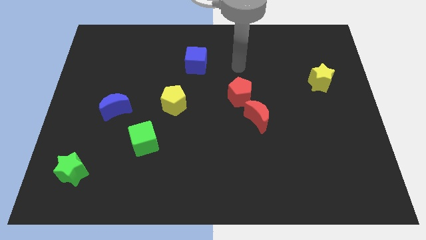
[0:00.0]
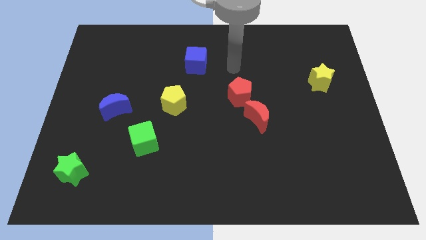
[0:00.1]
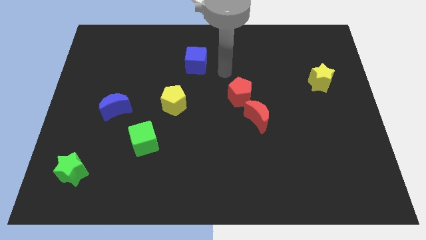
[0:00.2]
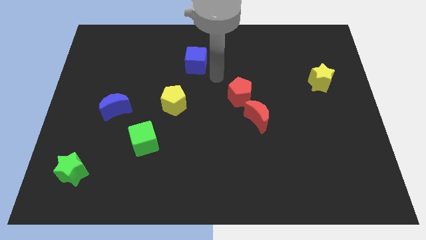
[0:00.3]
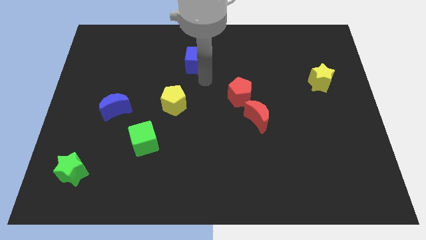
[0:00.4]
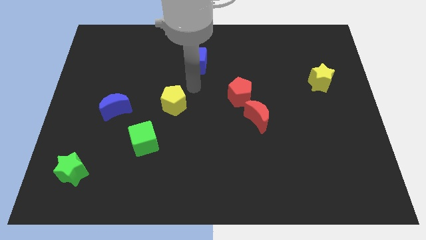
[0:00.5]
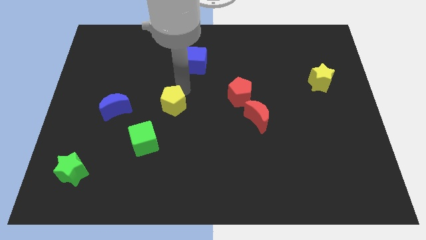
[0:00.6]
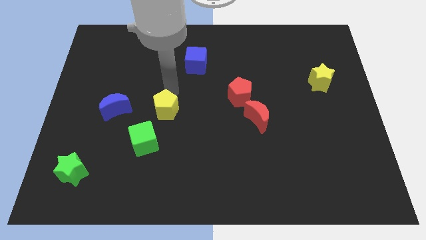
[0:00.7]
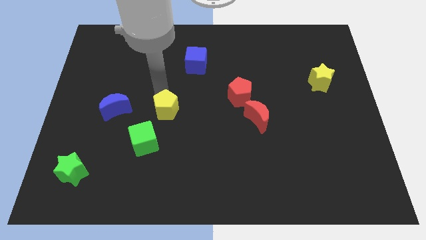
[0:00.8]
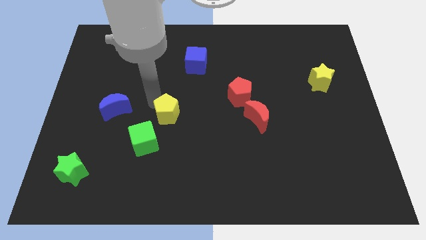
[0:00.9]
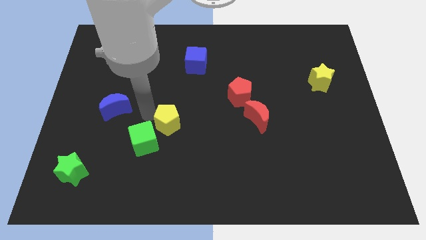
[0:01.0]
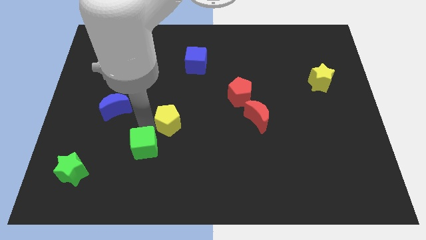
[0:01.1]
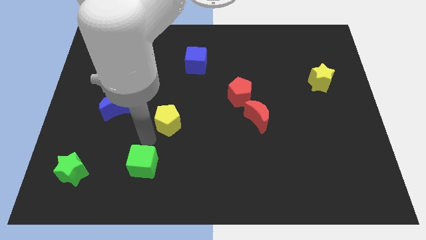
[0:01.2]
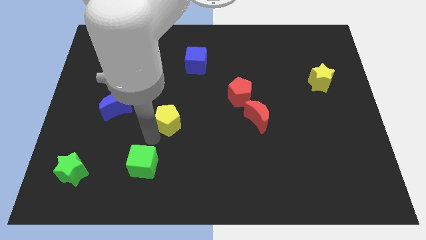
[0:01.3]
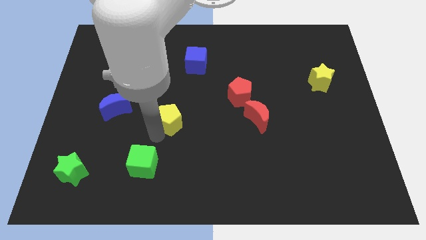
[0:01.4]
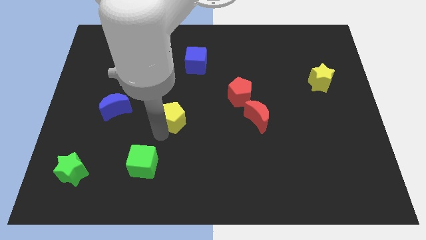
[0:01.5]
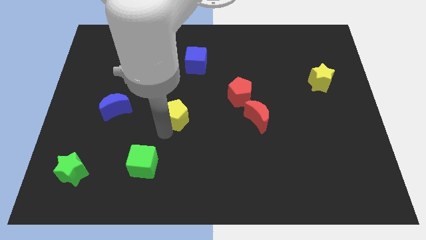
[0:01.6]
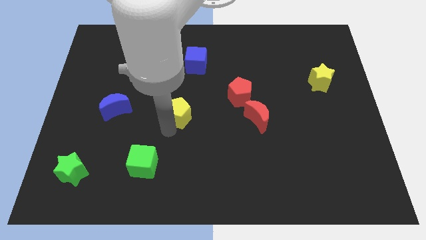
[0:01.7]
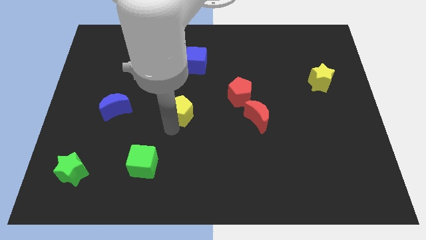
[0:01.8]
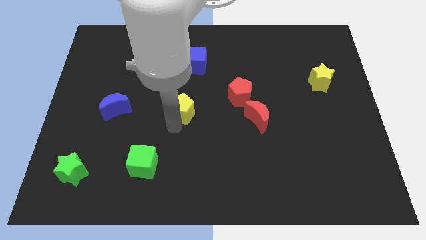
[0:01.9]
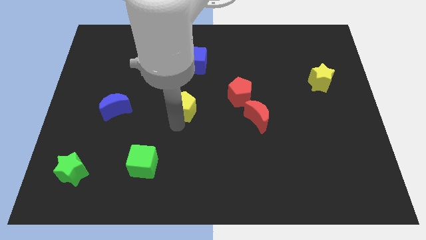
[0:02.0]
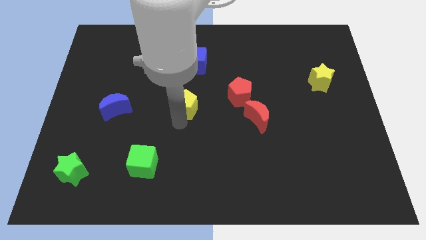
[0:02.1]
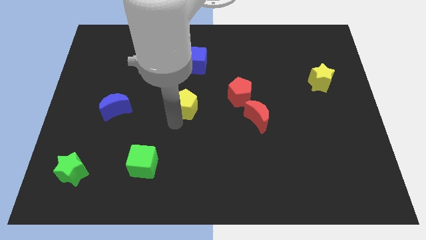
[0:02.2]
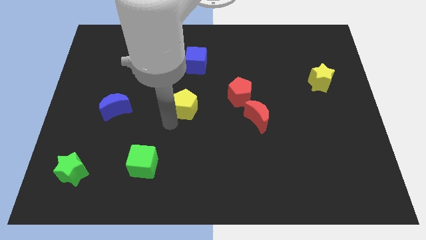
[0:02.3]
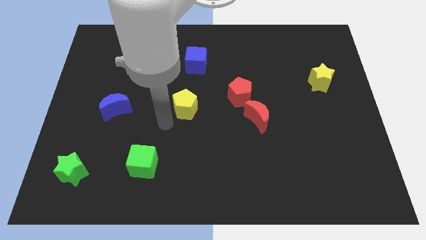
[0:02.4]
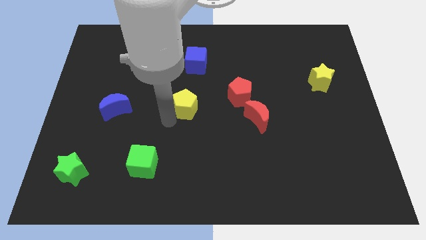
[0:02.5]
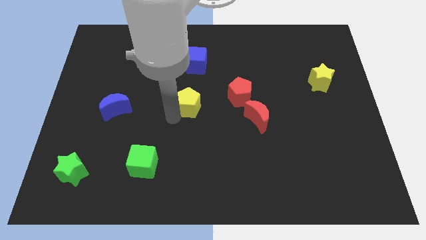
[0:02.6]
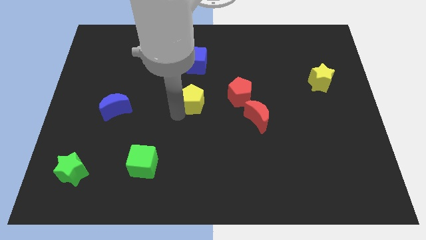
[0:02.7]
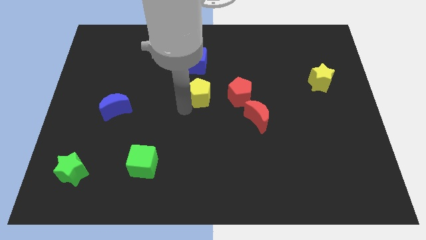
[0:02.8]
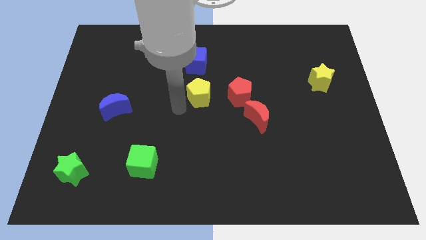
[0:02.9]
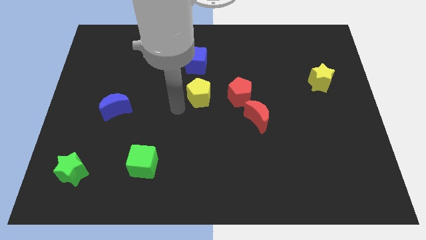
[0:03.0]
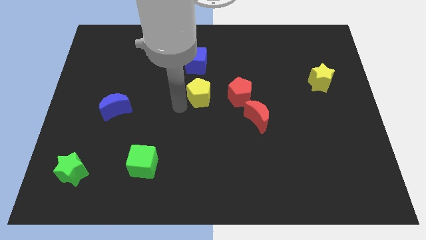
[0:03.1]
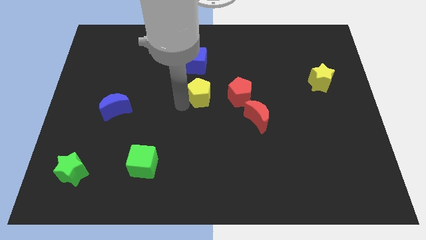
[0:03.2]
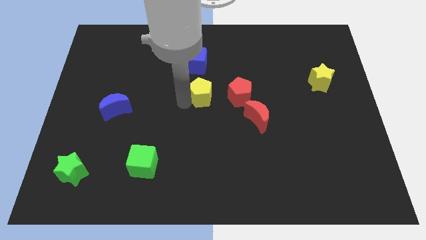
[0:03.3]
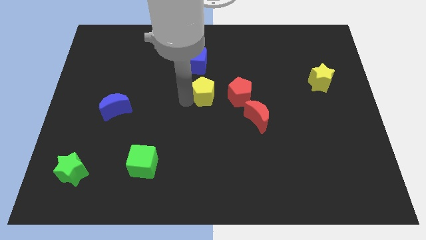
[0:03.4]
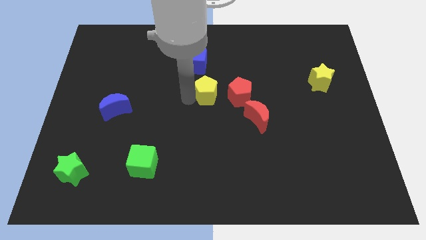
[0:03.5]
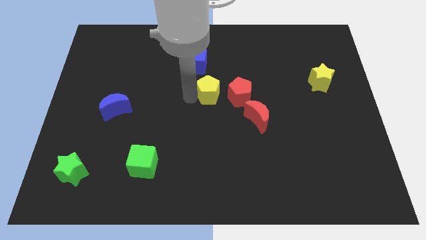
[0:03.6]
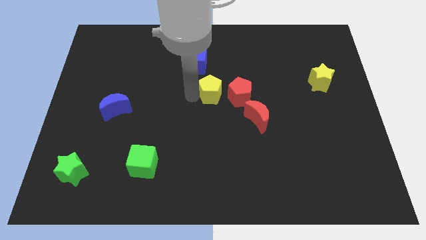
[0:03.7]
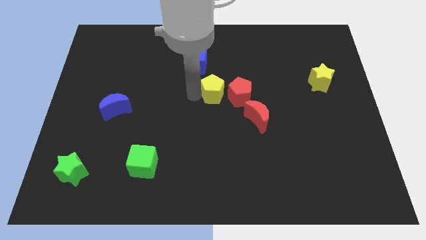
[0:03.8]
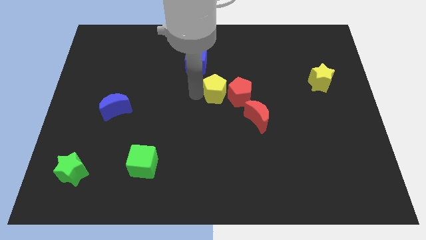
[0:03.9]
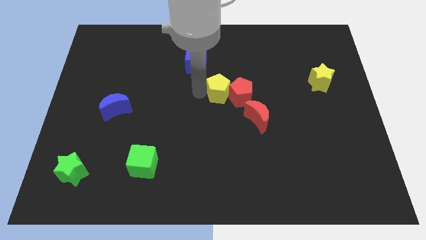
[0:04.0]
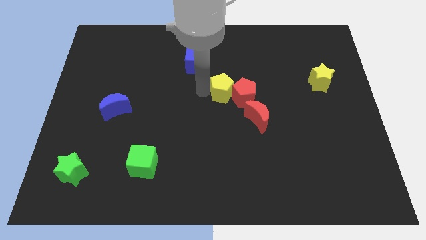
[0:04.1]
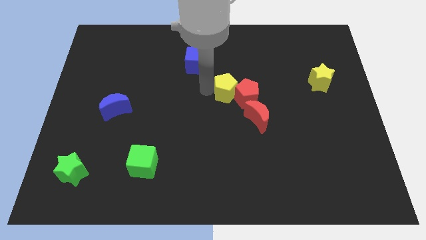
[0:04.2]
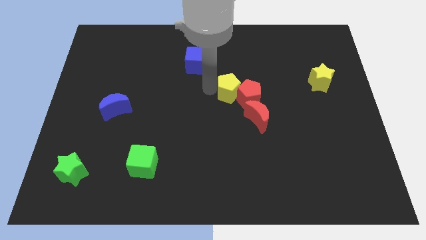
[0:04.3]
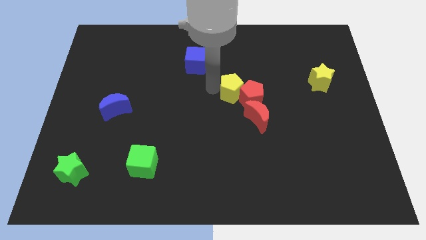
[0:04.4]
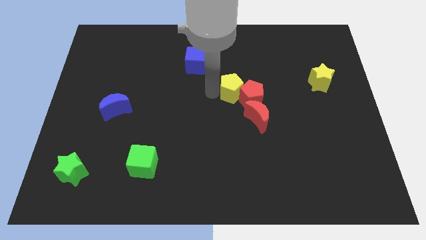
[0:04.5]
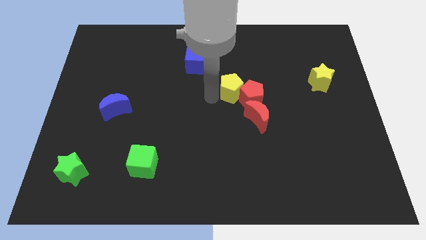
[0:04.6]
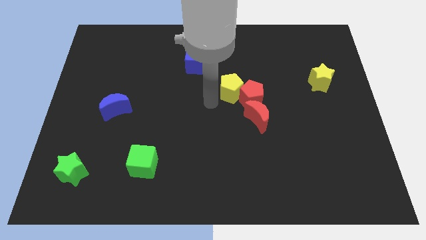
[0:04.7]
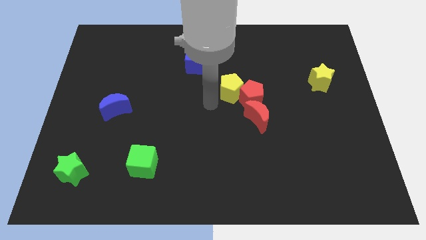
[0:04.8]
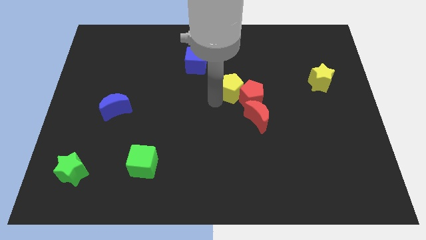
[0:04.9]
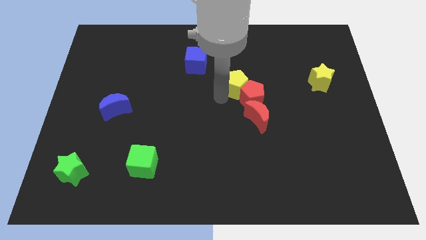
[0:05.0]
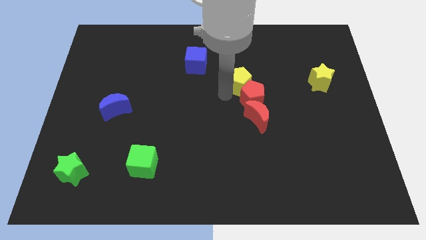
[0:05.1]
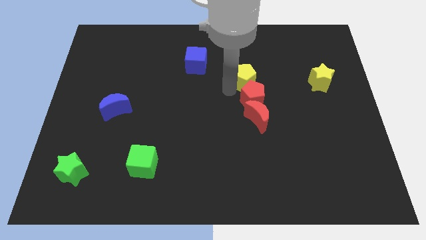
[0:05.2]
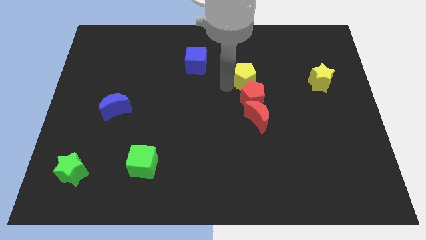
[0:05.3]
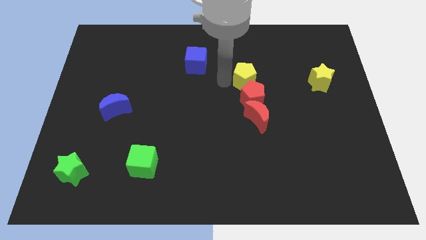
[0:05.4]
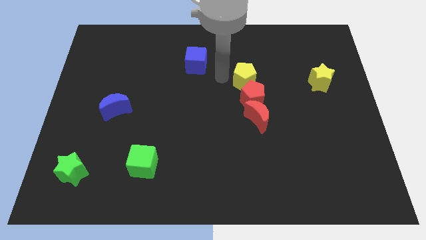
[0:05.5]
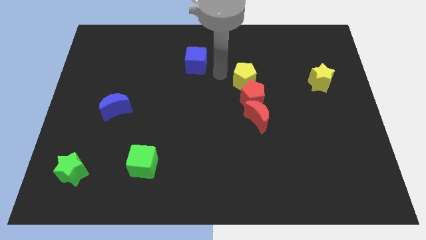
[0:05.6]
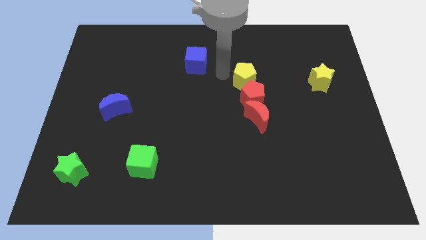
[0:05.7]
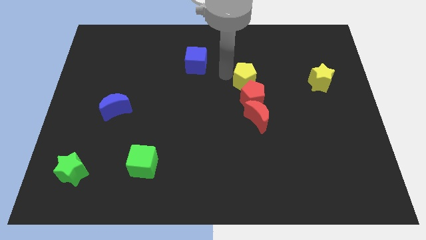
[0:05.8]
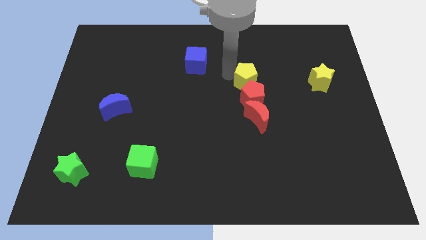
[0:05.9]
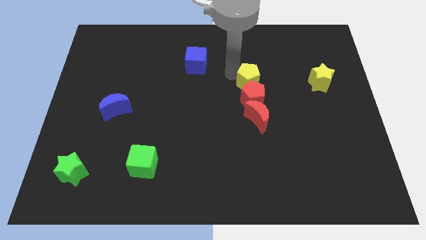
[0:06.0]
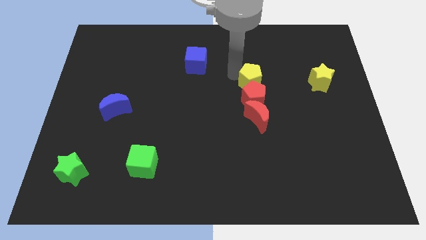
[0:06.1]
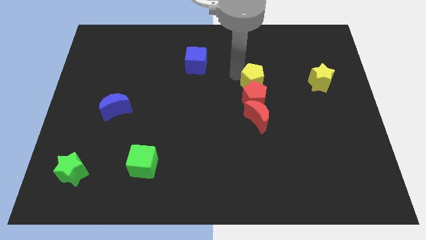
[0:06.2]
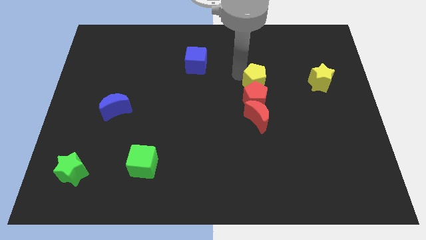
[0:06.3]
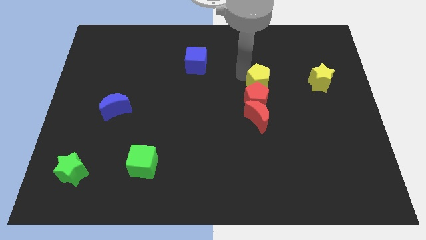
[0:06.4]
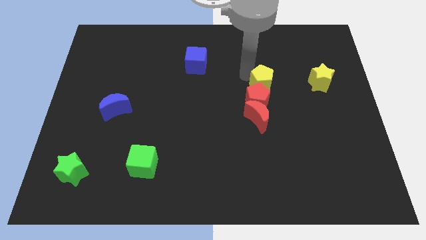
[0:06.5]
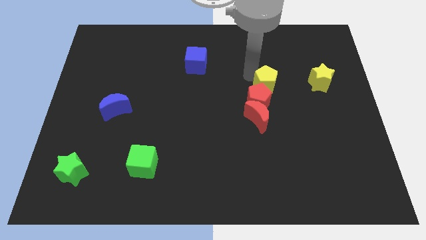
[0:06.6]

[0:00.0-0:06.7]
slide the yellow pentagon to the right

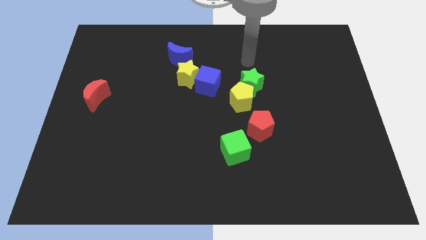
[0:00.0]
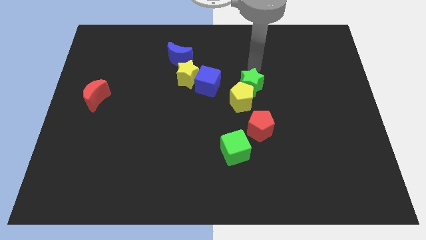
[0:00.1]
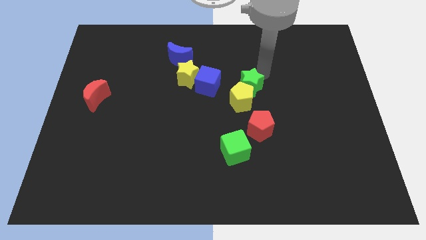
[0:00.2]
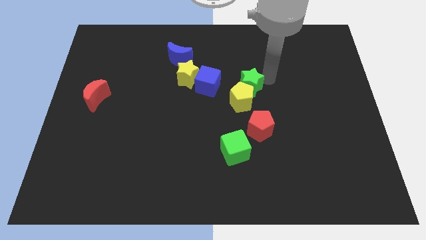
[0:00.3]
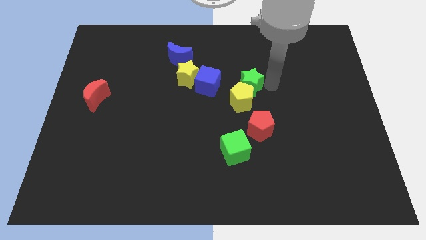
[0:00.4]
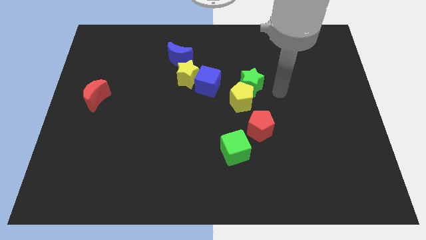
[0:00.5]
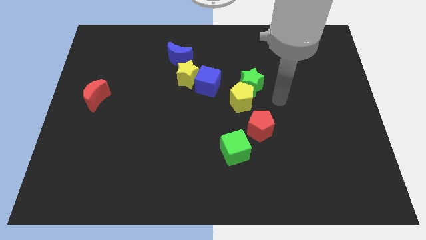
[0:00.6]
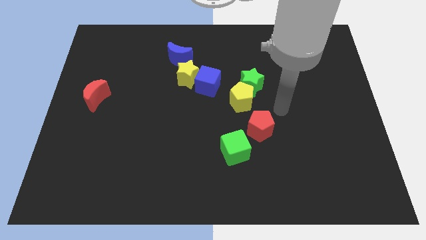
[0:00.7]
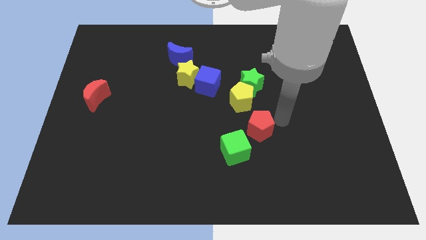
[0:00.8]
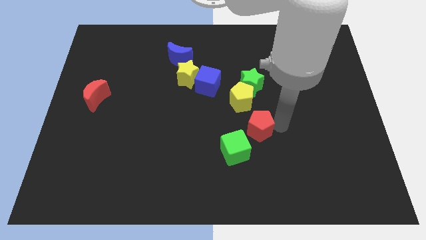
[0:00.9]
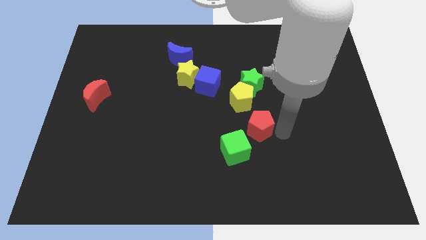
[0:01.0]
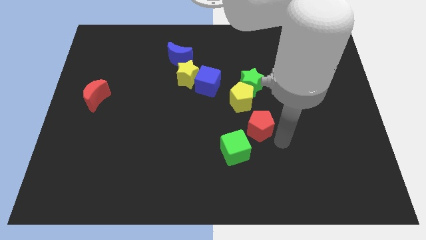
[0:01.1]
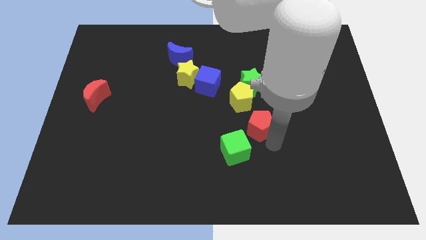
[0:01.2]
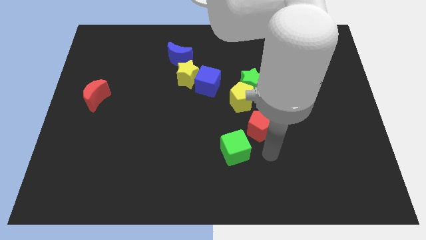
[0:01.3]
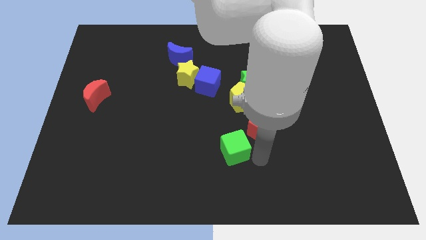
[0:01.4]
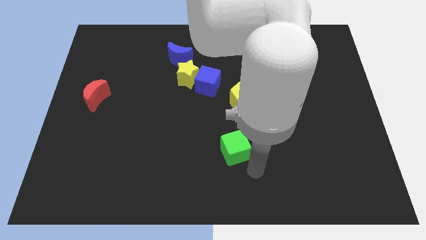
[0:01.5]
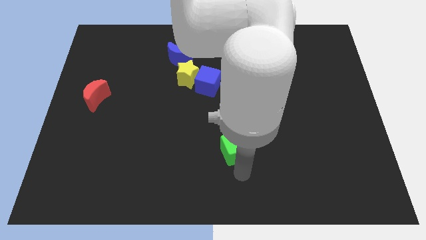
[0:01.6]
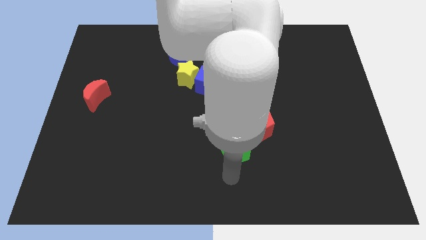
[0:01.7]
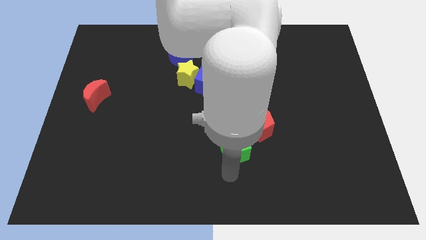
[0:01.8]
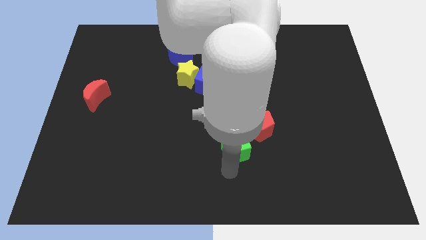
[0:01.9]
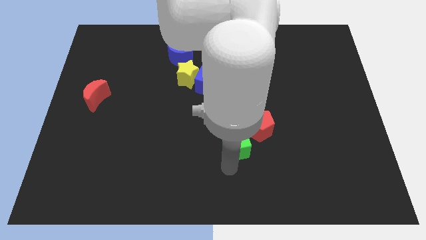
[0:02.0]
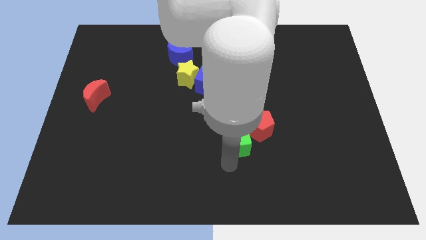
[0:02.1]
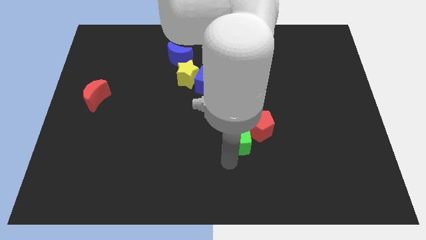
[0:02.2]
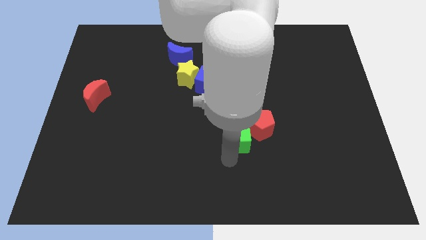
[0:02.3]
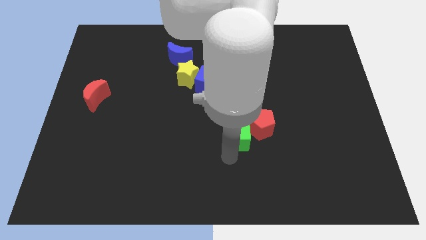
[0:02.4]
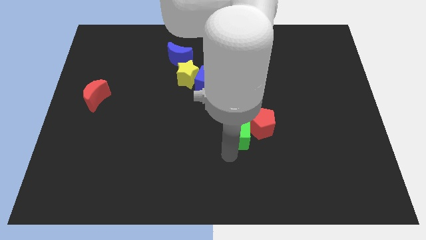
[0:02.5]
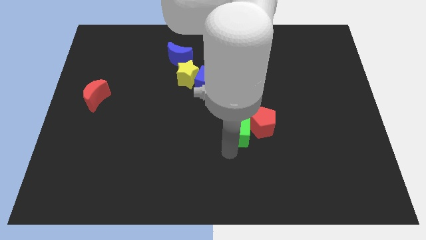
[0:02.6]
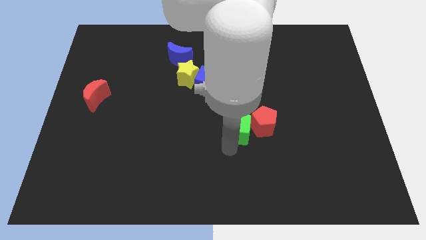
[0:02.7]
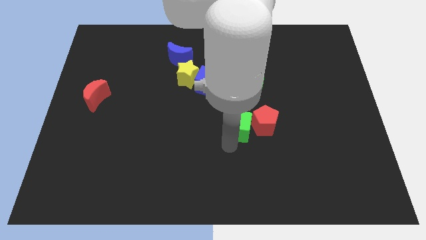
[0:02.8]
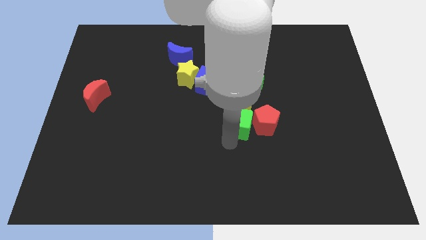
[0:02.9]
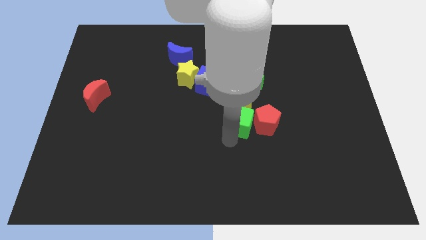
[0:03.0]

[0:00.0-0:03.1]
slightly slide the green cube up
